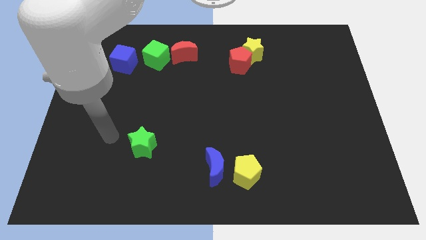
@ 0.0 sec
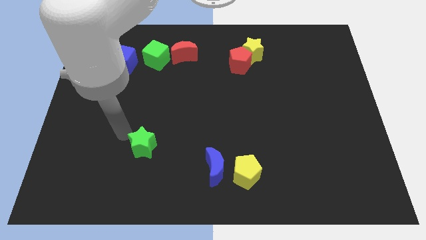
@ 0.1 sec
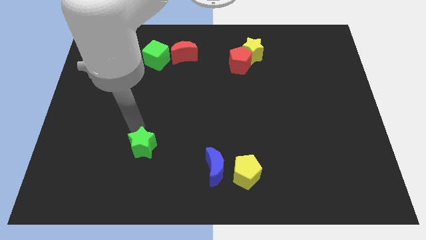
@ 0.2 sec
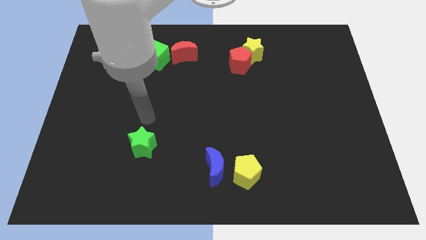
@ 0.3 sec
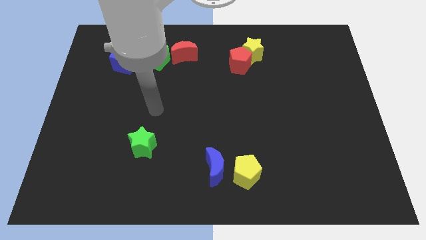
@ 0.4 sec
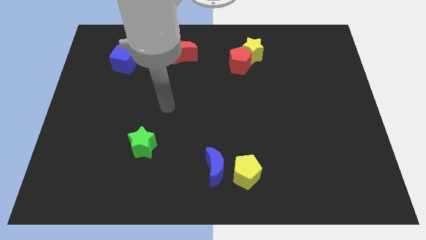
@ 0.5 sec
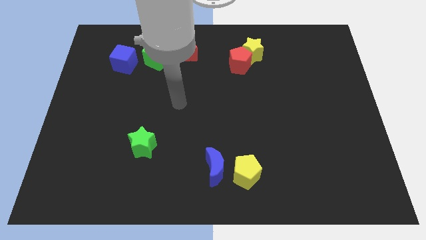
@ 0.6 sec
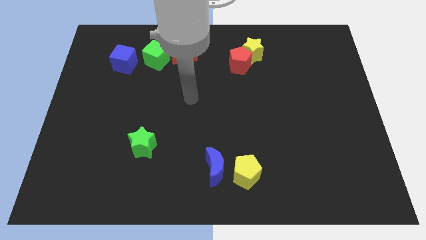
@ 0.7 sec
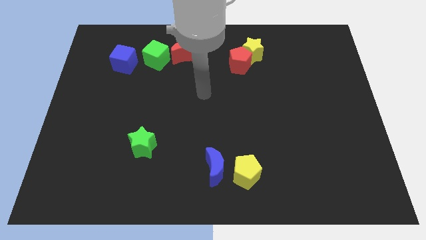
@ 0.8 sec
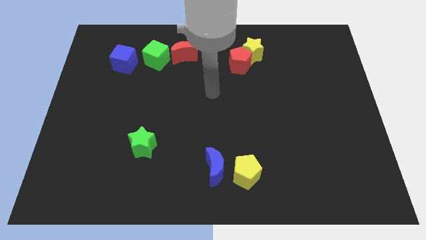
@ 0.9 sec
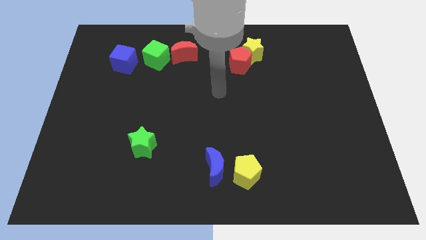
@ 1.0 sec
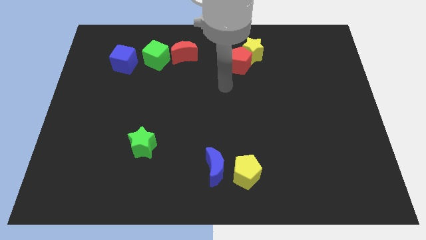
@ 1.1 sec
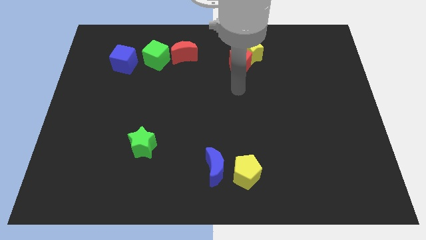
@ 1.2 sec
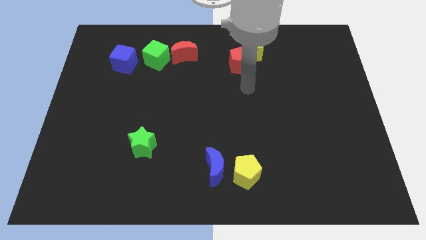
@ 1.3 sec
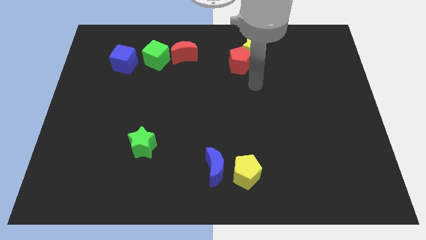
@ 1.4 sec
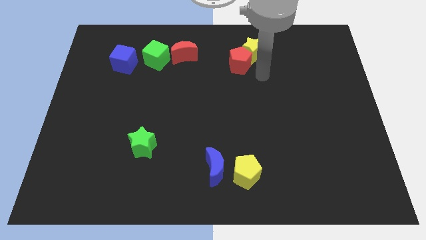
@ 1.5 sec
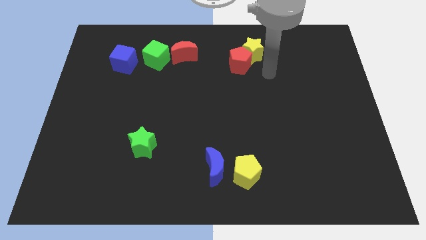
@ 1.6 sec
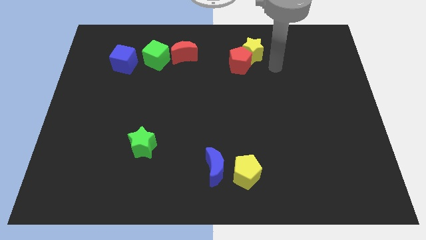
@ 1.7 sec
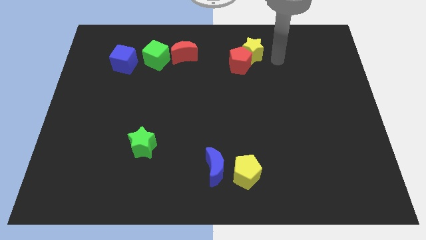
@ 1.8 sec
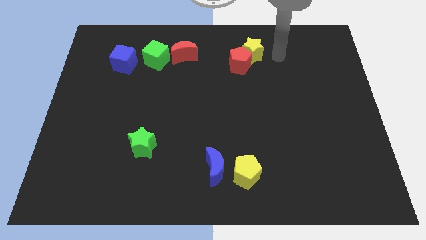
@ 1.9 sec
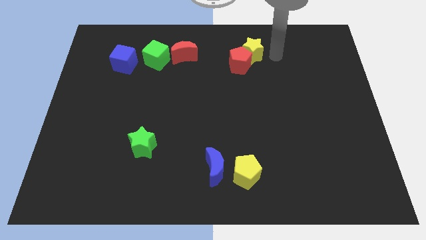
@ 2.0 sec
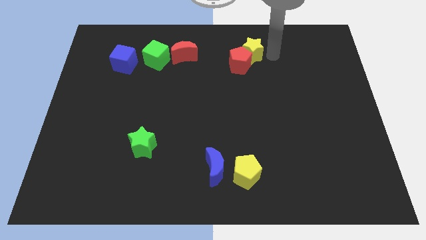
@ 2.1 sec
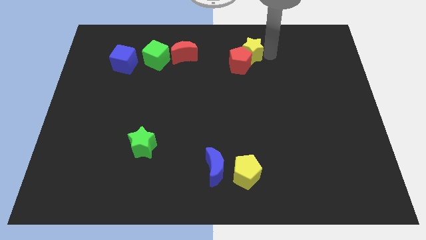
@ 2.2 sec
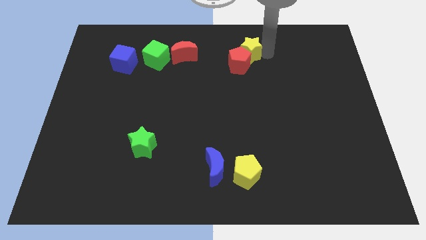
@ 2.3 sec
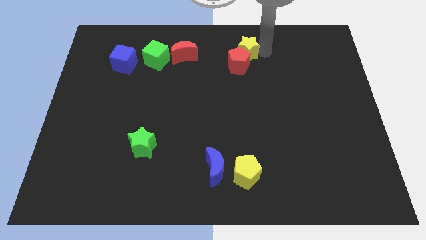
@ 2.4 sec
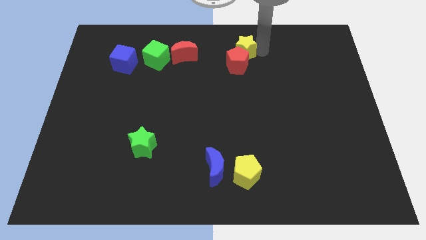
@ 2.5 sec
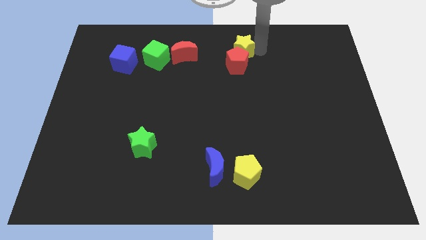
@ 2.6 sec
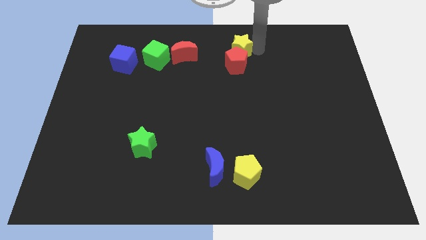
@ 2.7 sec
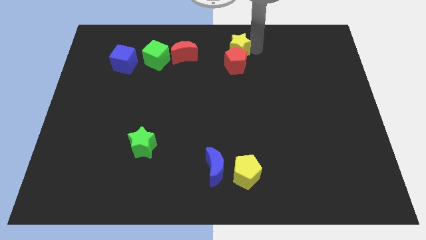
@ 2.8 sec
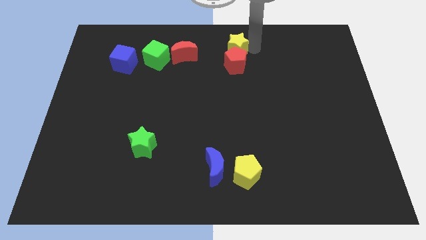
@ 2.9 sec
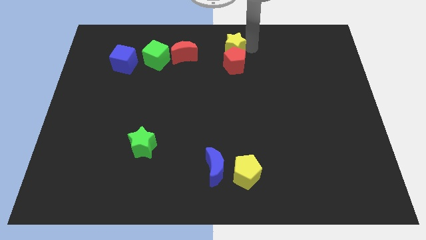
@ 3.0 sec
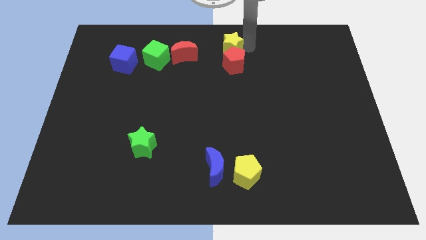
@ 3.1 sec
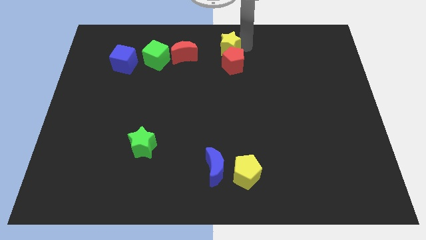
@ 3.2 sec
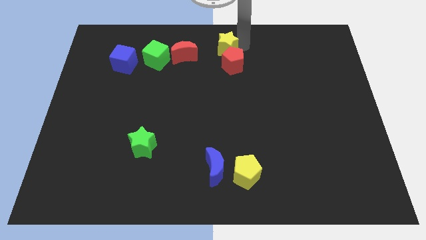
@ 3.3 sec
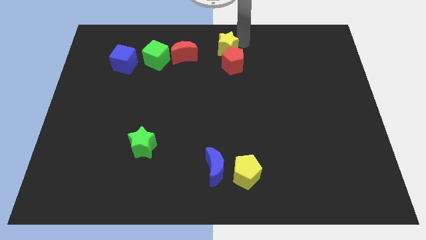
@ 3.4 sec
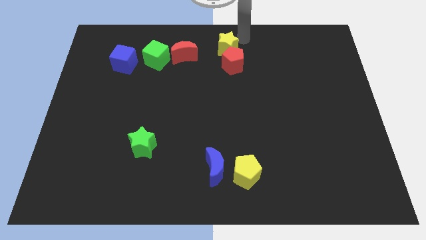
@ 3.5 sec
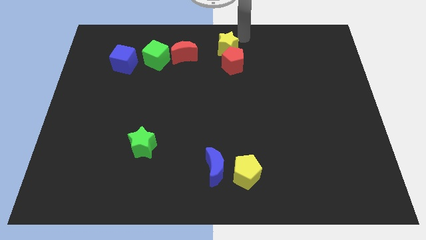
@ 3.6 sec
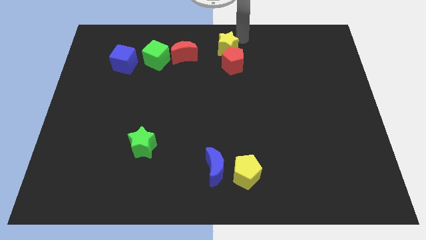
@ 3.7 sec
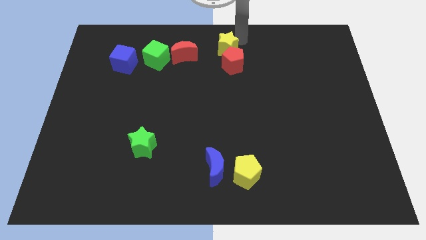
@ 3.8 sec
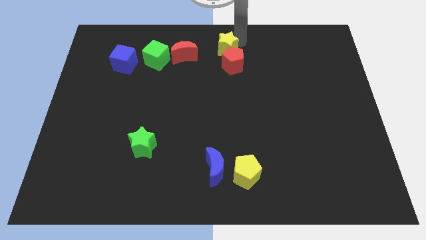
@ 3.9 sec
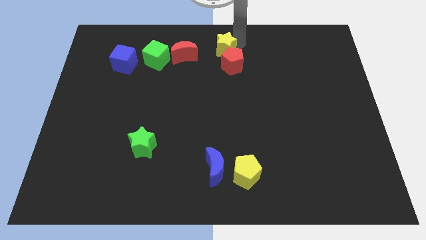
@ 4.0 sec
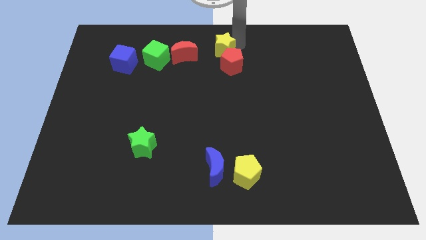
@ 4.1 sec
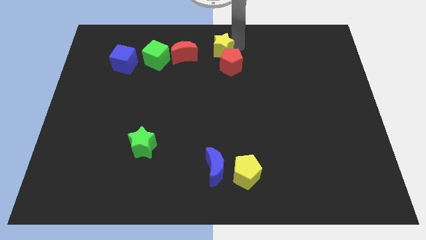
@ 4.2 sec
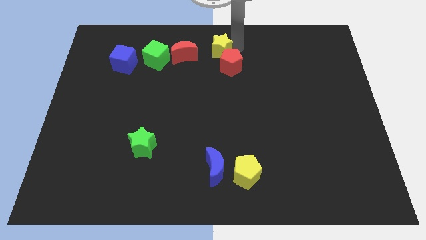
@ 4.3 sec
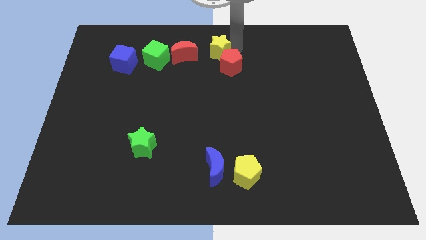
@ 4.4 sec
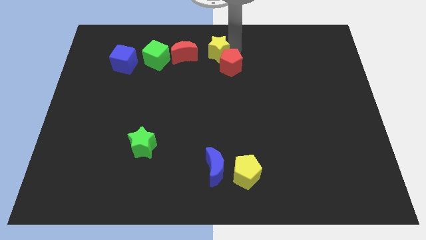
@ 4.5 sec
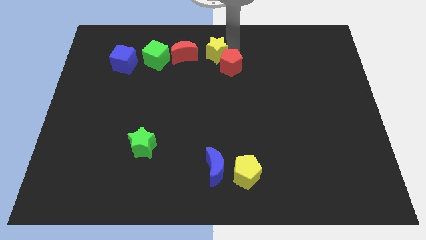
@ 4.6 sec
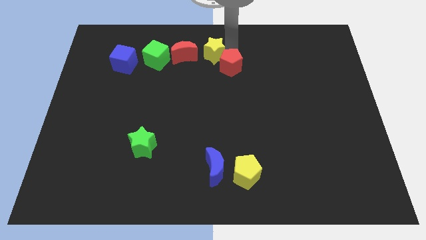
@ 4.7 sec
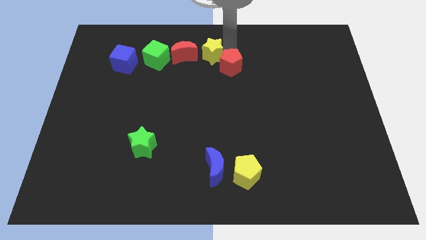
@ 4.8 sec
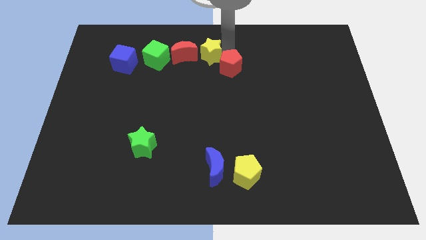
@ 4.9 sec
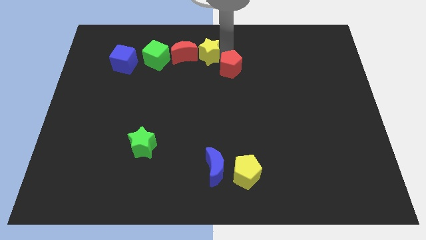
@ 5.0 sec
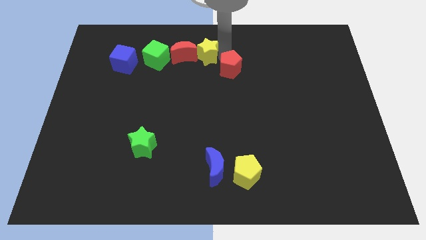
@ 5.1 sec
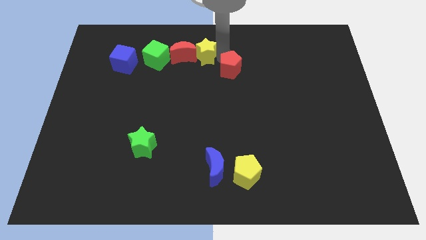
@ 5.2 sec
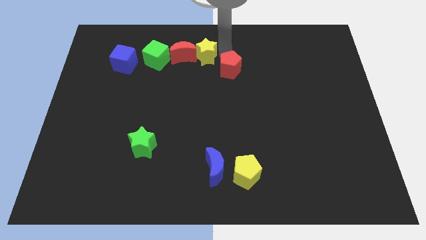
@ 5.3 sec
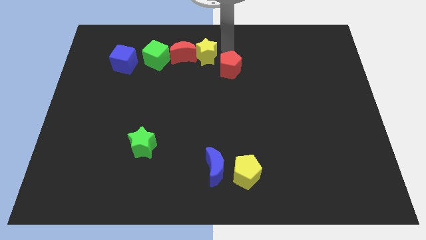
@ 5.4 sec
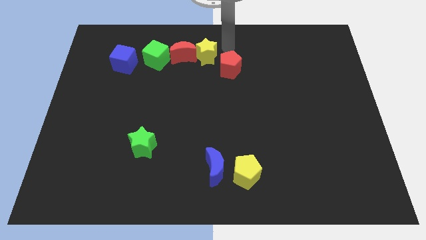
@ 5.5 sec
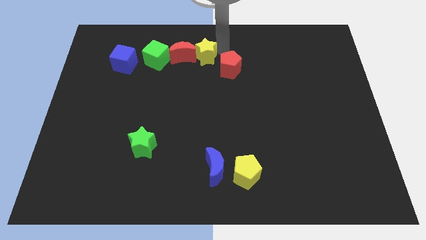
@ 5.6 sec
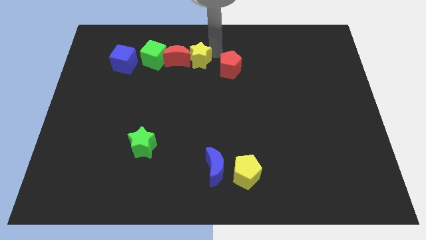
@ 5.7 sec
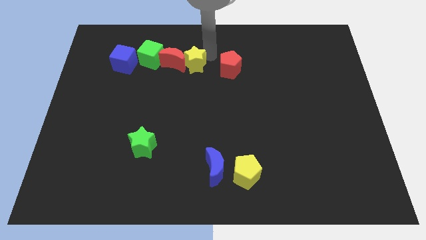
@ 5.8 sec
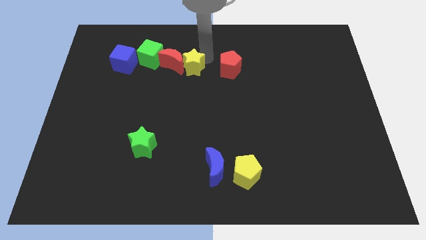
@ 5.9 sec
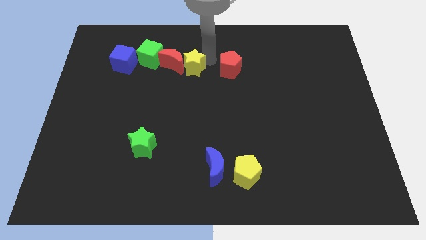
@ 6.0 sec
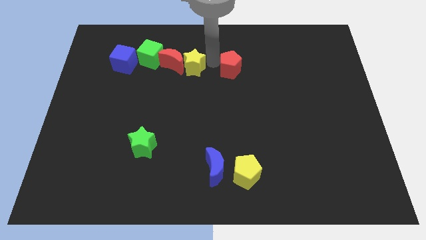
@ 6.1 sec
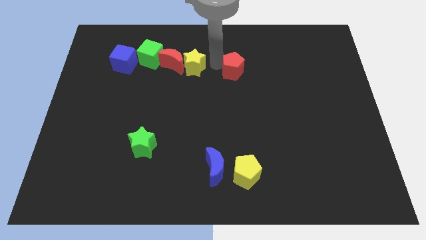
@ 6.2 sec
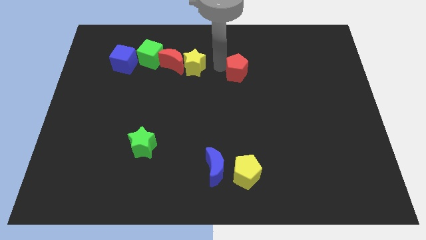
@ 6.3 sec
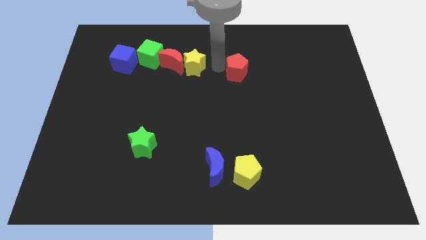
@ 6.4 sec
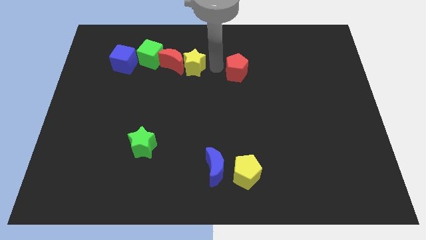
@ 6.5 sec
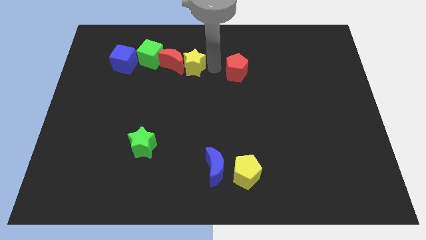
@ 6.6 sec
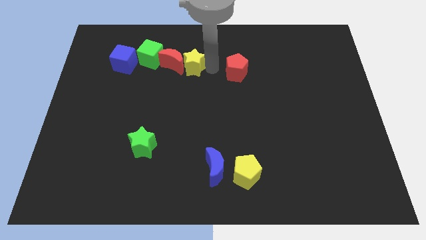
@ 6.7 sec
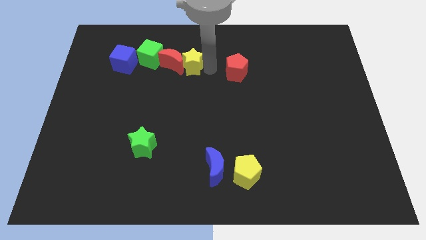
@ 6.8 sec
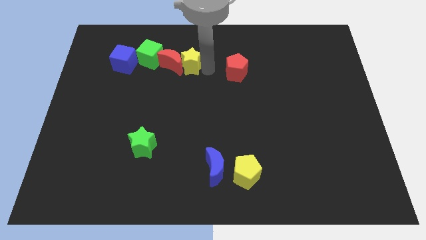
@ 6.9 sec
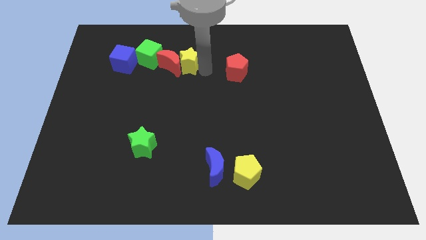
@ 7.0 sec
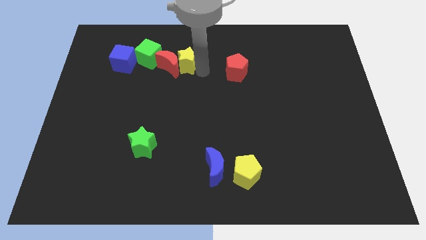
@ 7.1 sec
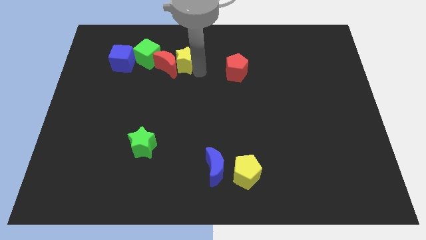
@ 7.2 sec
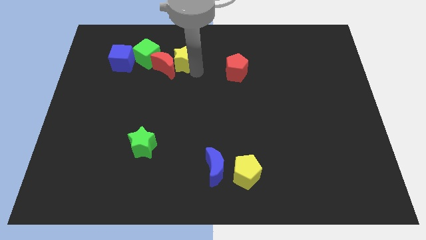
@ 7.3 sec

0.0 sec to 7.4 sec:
slide the yellow star to the right of the blue cube

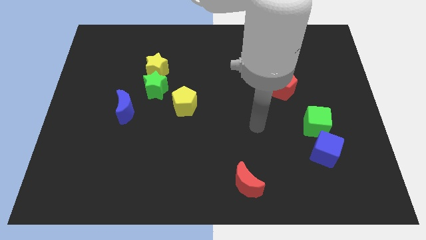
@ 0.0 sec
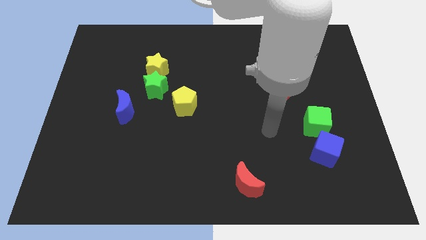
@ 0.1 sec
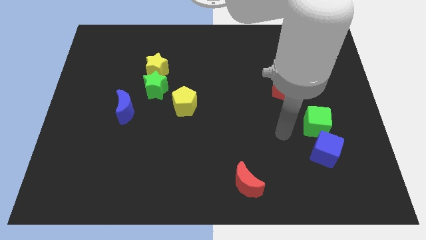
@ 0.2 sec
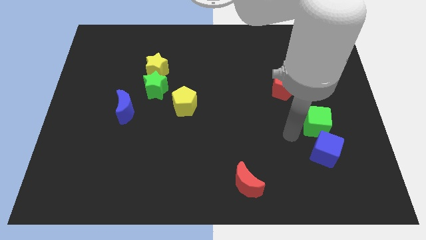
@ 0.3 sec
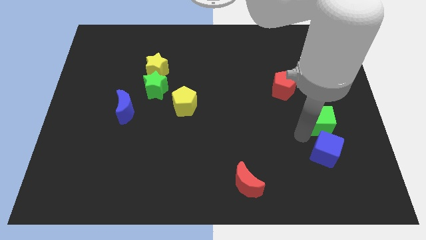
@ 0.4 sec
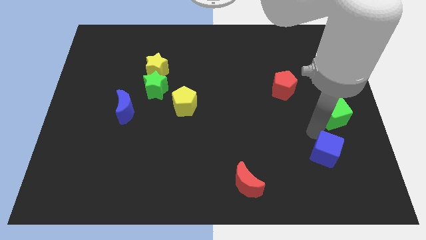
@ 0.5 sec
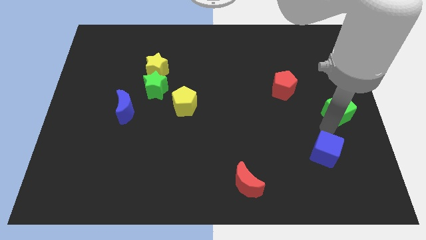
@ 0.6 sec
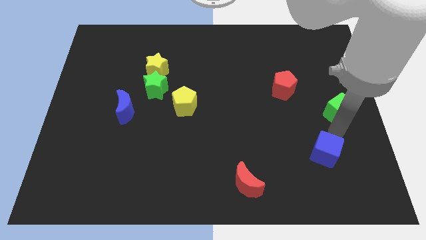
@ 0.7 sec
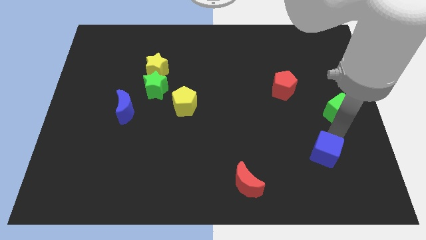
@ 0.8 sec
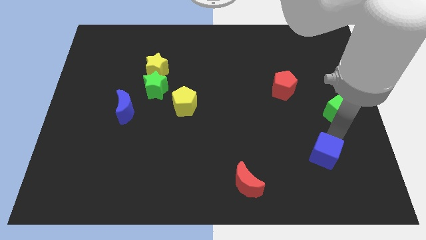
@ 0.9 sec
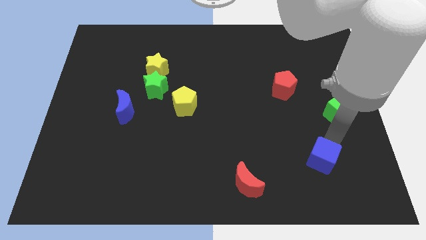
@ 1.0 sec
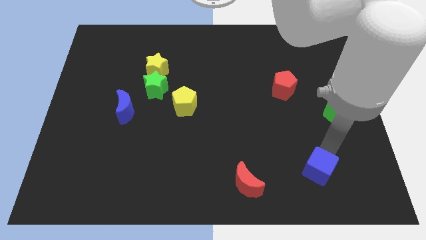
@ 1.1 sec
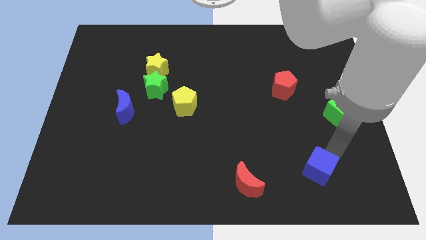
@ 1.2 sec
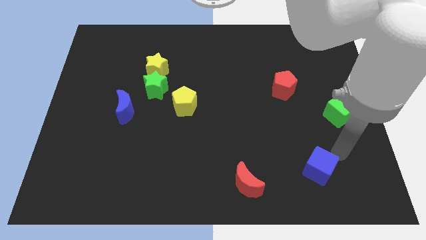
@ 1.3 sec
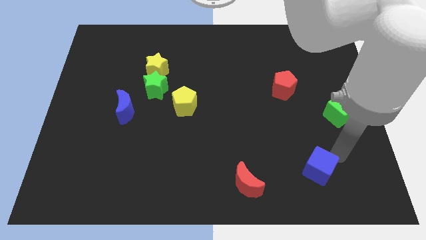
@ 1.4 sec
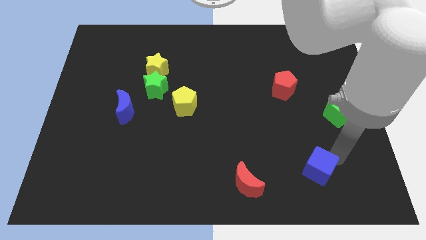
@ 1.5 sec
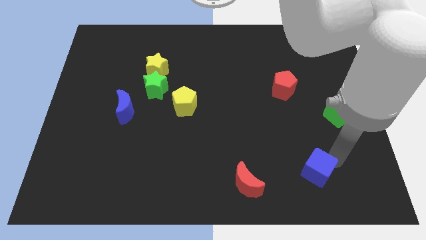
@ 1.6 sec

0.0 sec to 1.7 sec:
push the blue cube to the right of the red moon
